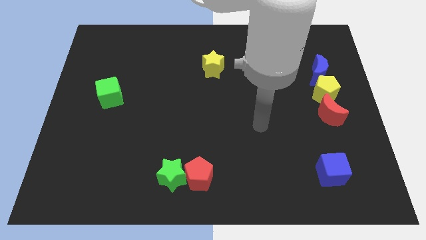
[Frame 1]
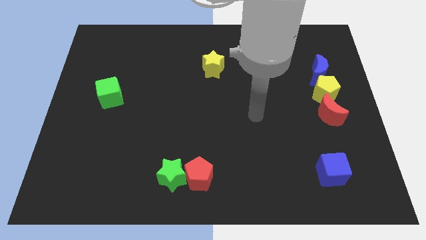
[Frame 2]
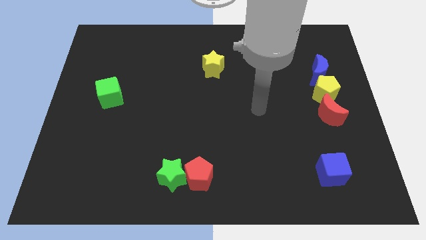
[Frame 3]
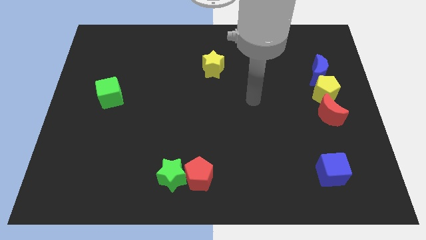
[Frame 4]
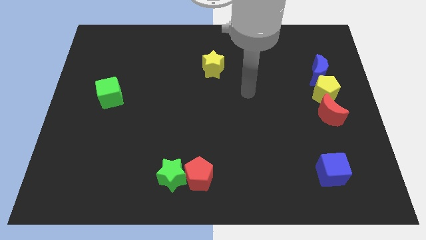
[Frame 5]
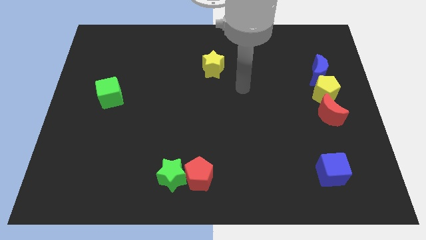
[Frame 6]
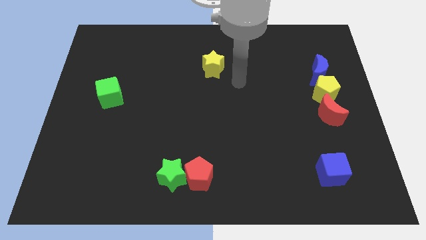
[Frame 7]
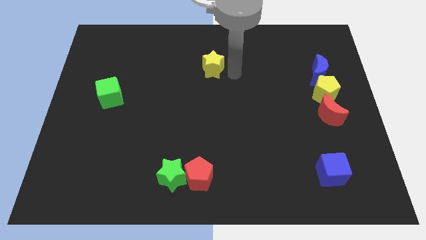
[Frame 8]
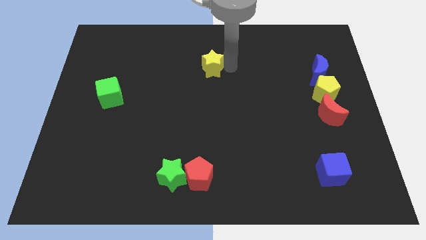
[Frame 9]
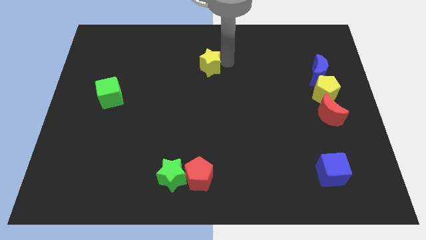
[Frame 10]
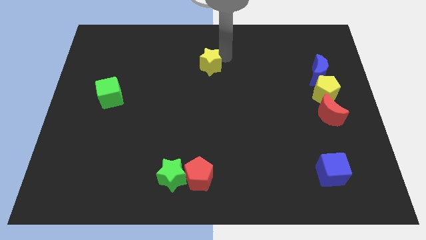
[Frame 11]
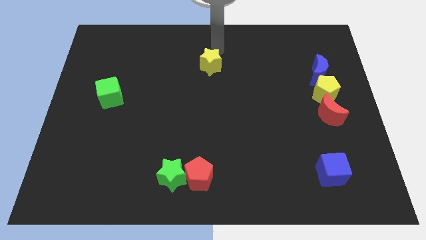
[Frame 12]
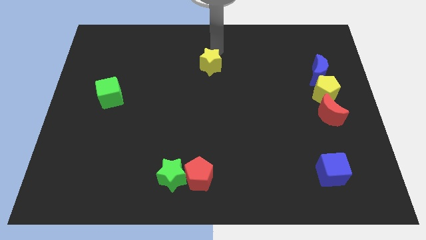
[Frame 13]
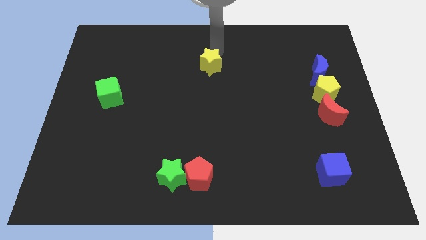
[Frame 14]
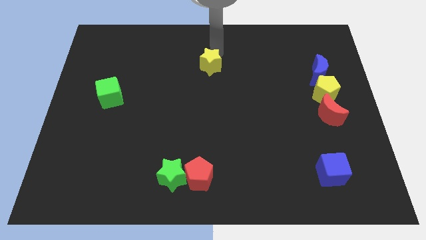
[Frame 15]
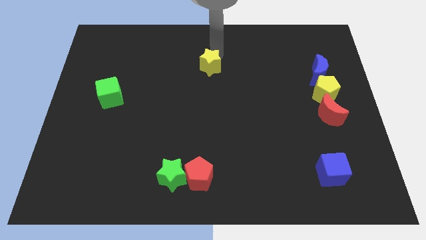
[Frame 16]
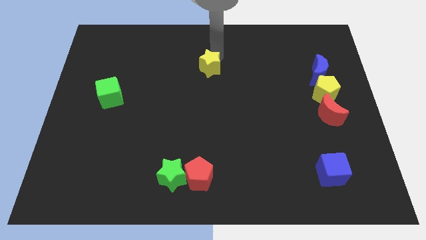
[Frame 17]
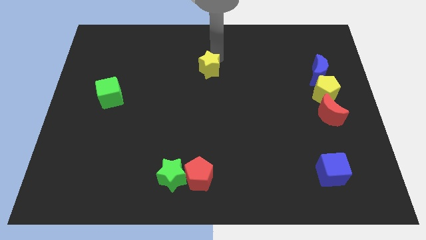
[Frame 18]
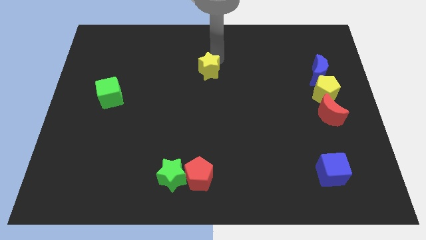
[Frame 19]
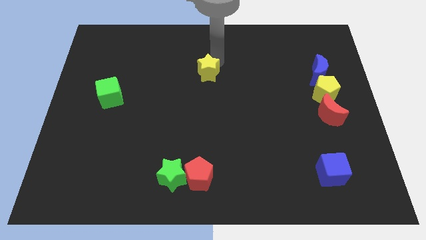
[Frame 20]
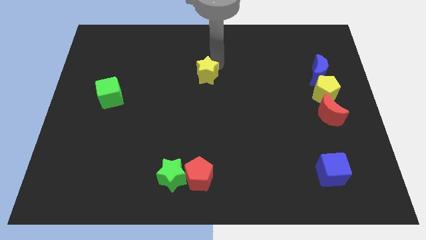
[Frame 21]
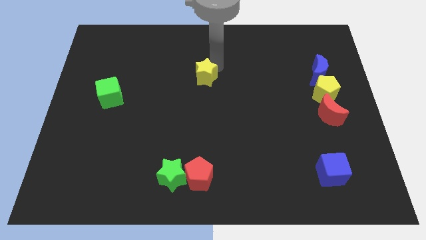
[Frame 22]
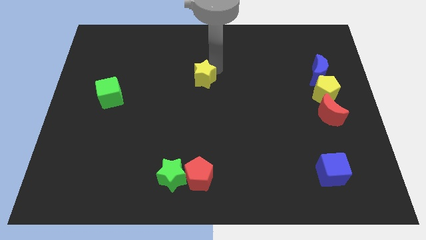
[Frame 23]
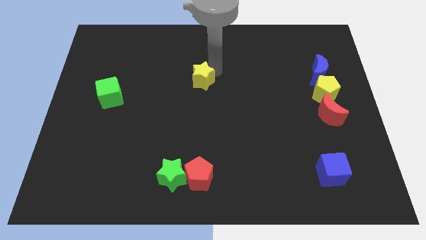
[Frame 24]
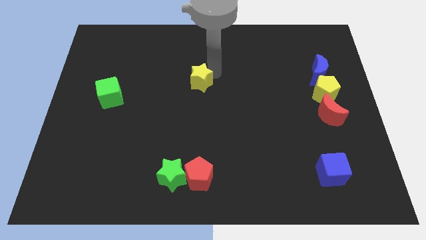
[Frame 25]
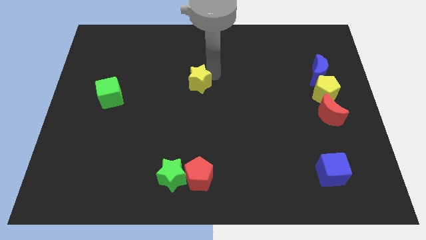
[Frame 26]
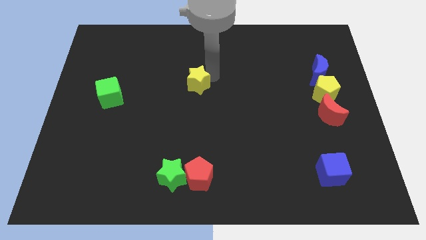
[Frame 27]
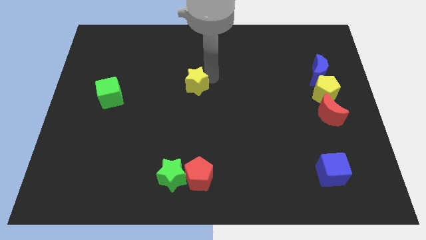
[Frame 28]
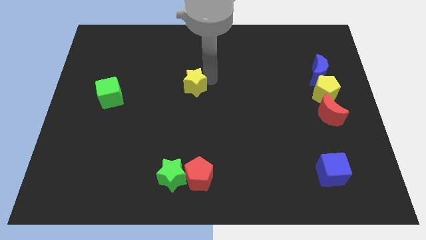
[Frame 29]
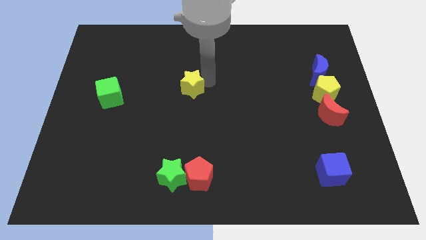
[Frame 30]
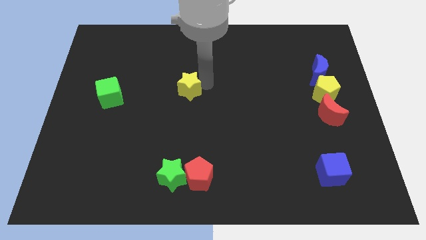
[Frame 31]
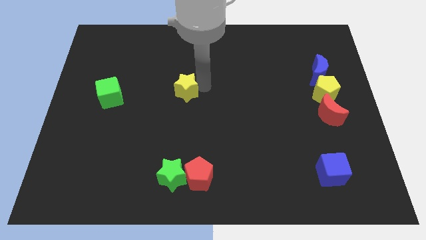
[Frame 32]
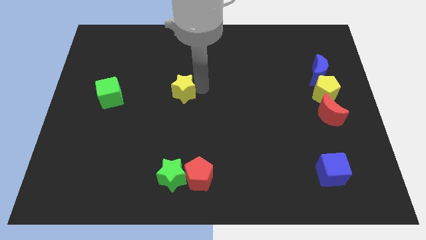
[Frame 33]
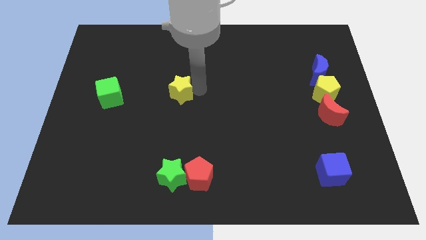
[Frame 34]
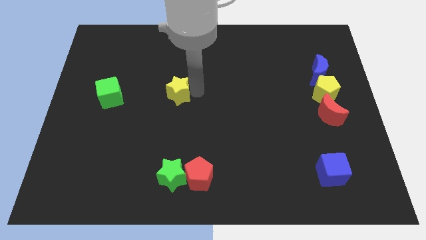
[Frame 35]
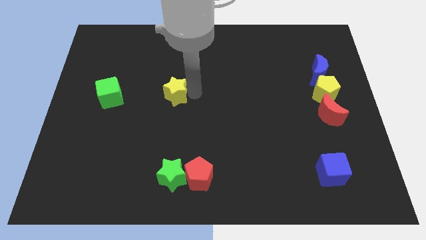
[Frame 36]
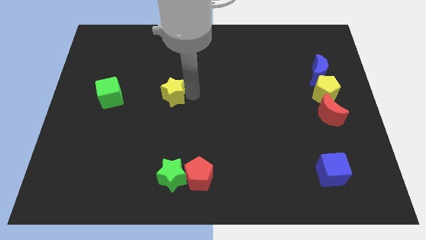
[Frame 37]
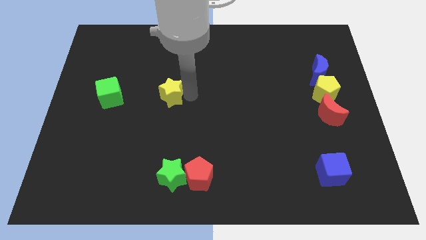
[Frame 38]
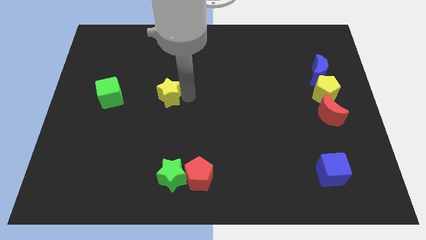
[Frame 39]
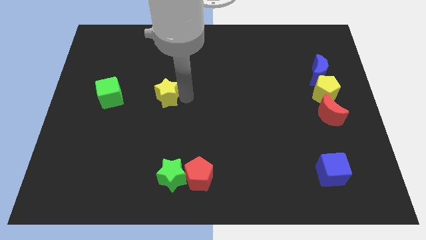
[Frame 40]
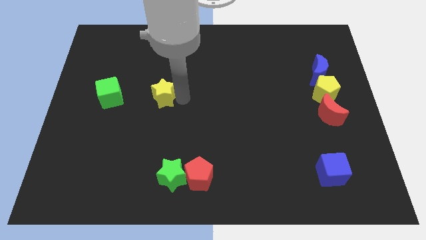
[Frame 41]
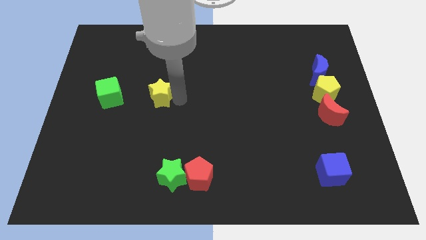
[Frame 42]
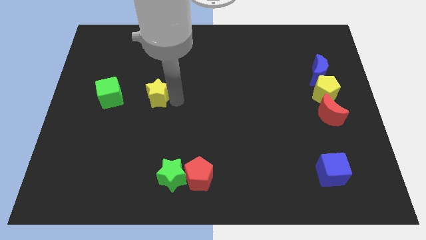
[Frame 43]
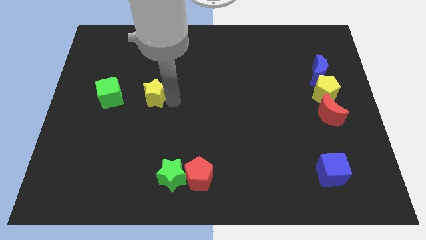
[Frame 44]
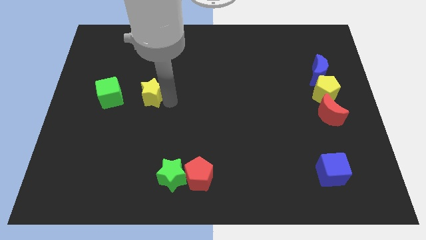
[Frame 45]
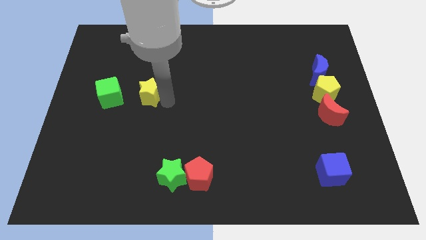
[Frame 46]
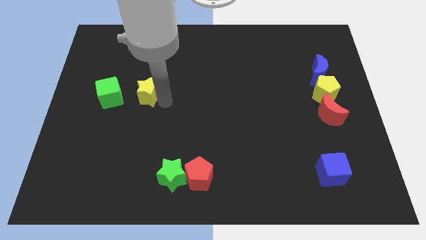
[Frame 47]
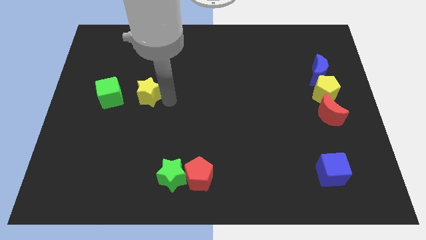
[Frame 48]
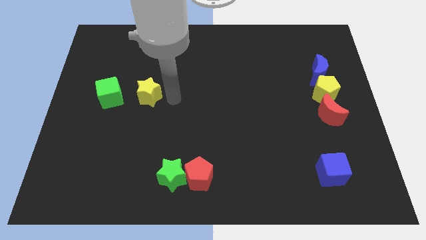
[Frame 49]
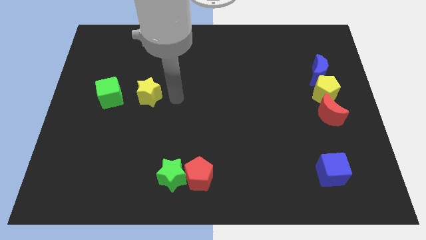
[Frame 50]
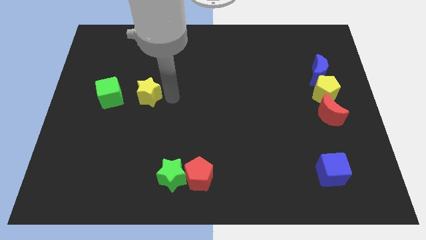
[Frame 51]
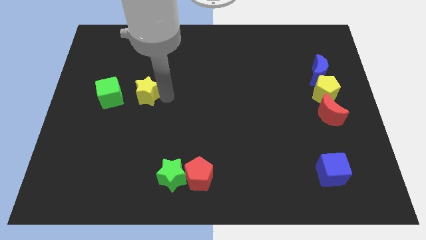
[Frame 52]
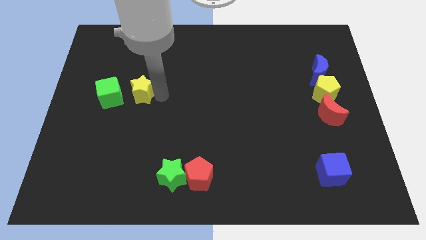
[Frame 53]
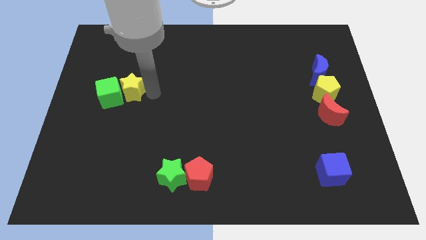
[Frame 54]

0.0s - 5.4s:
slide the yellow star towards the green cube
